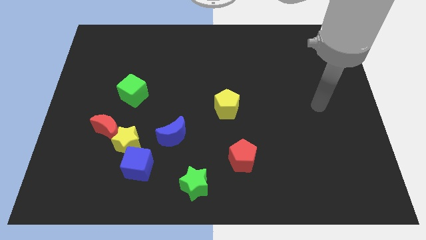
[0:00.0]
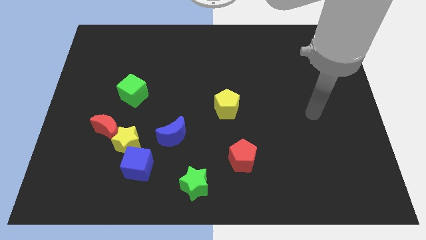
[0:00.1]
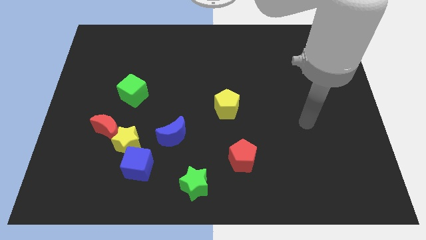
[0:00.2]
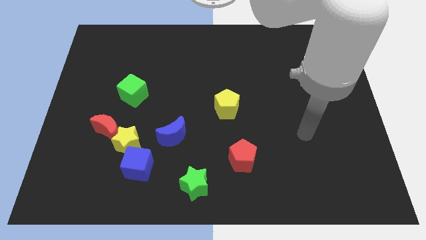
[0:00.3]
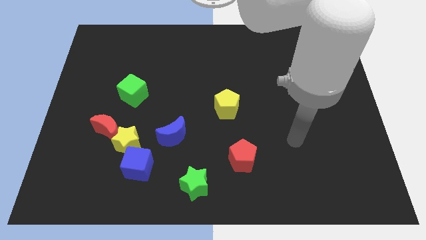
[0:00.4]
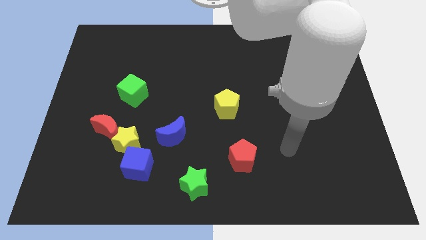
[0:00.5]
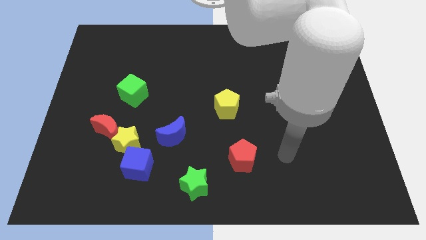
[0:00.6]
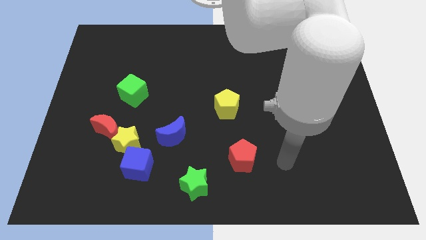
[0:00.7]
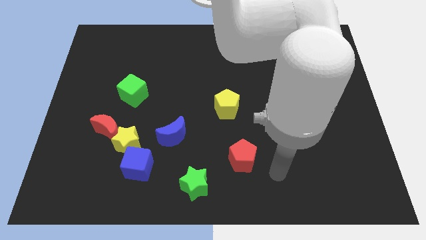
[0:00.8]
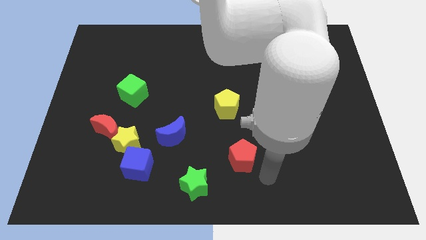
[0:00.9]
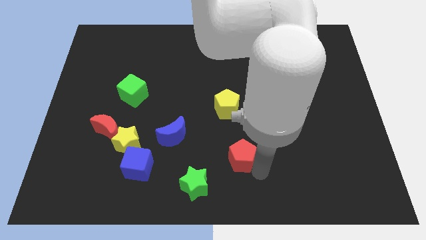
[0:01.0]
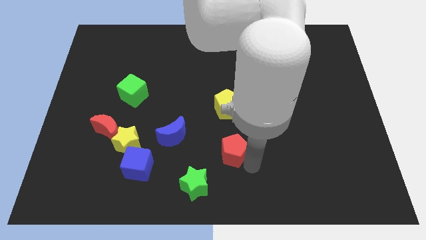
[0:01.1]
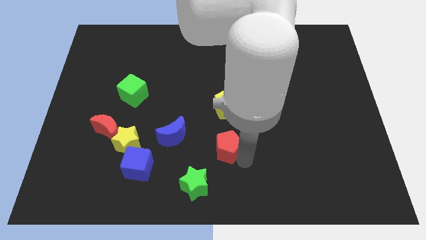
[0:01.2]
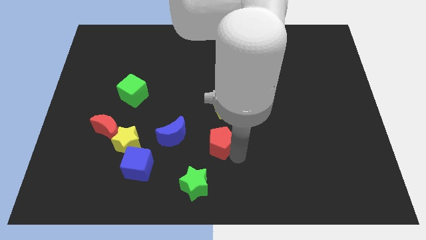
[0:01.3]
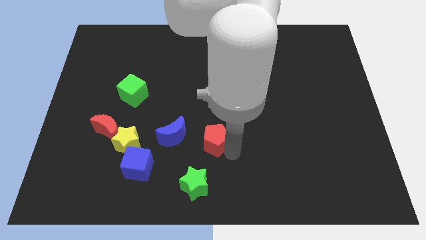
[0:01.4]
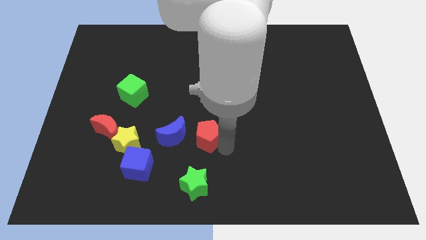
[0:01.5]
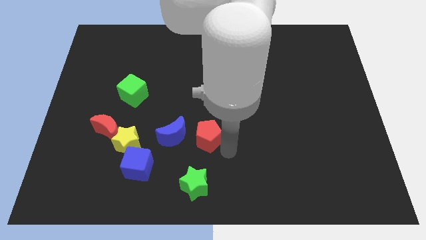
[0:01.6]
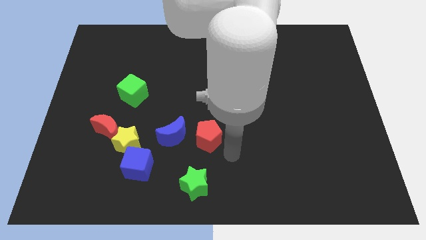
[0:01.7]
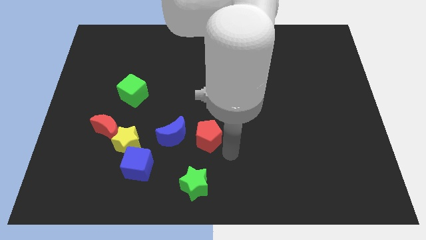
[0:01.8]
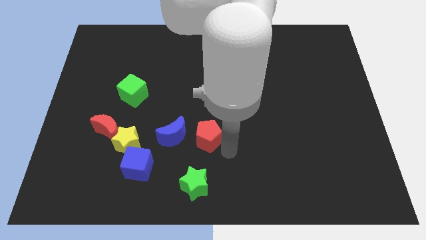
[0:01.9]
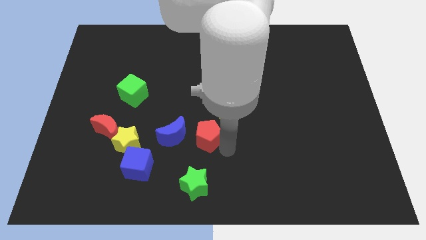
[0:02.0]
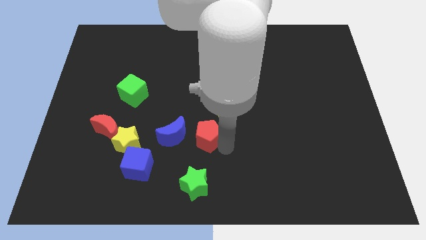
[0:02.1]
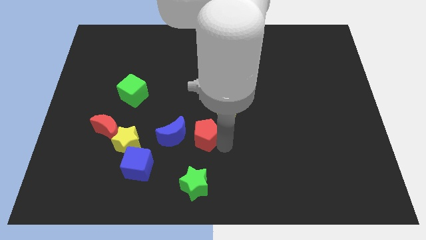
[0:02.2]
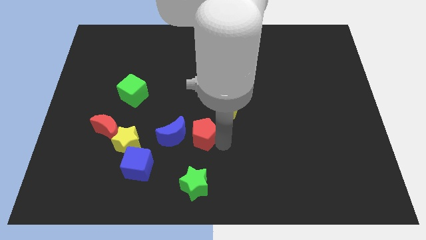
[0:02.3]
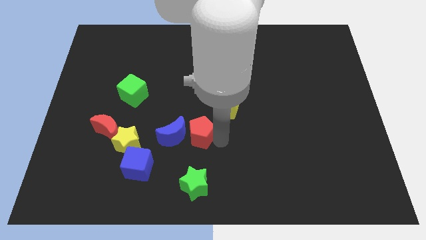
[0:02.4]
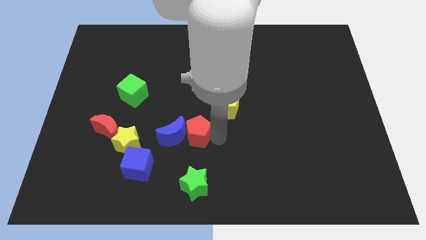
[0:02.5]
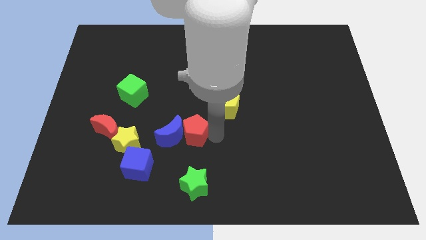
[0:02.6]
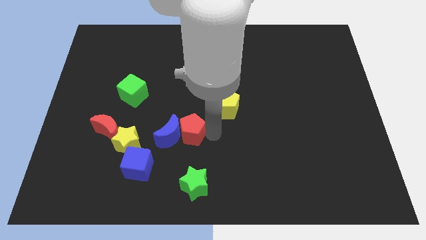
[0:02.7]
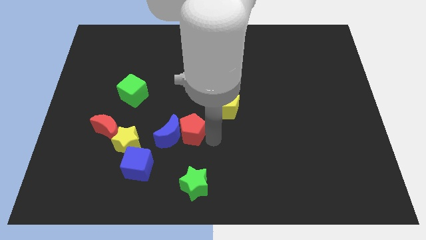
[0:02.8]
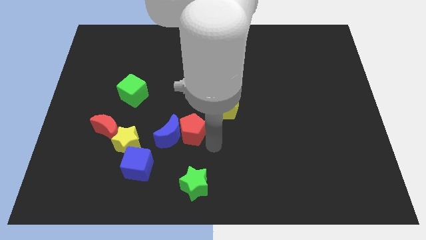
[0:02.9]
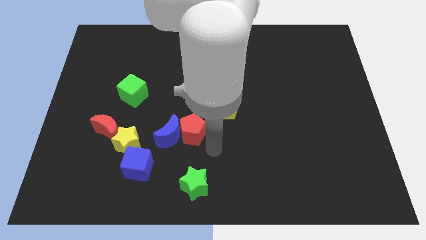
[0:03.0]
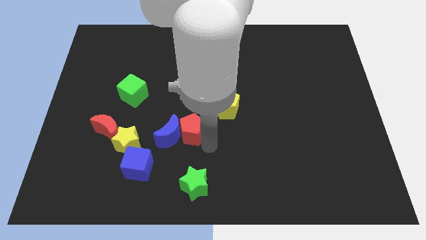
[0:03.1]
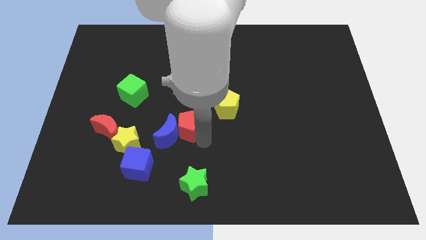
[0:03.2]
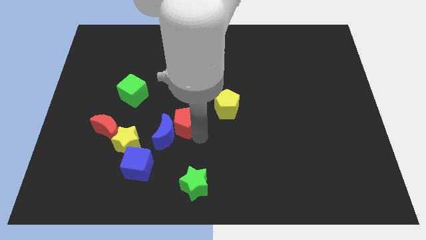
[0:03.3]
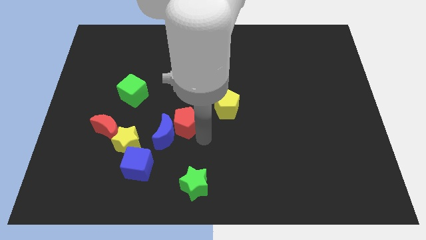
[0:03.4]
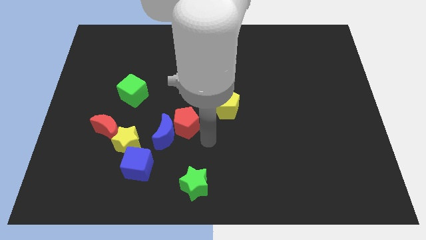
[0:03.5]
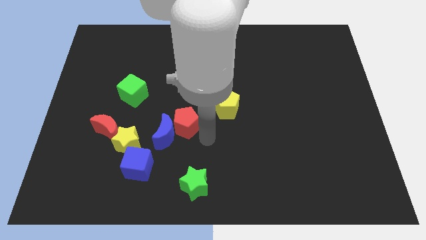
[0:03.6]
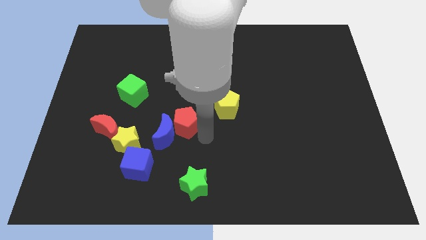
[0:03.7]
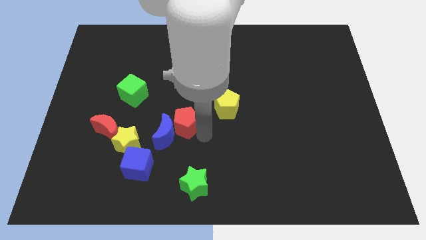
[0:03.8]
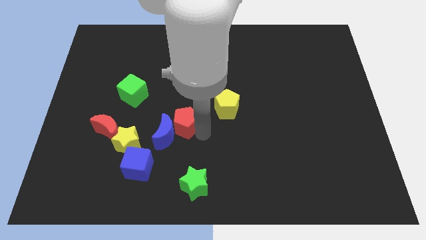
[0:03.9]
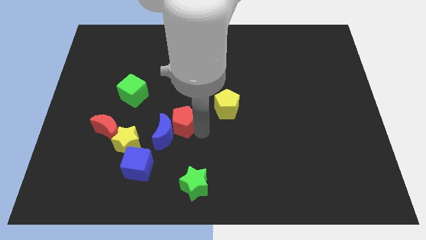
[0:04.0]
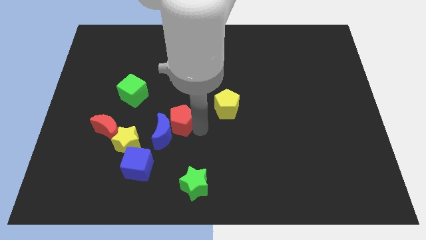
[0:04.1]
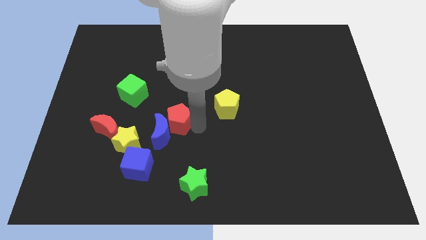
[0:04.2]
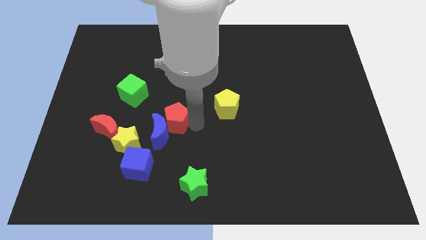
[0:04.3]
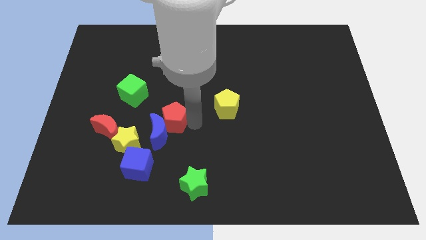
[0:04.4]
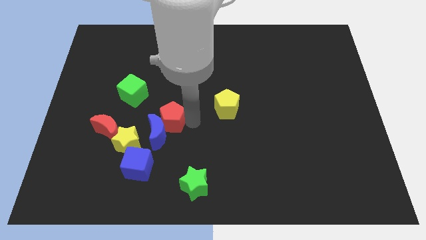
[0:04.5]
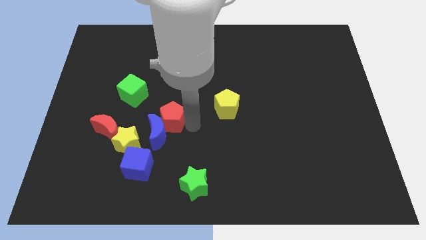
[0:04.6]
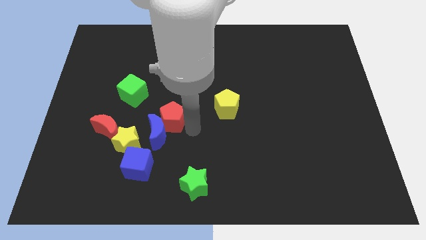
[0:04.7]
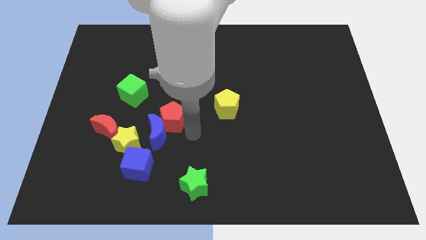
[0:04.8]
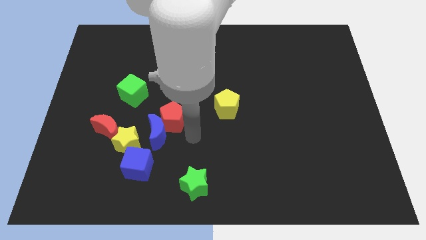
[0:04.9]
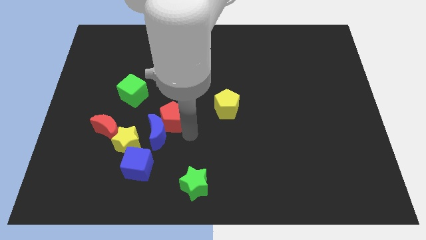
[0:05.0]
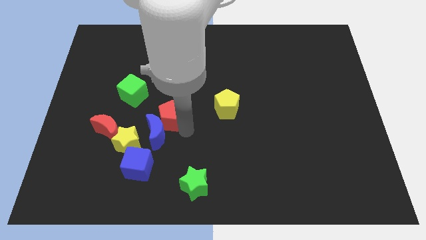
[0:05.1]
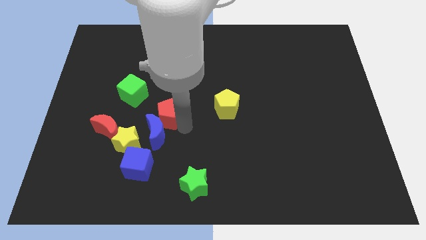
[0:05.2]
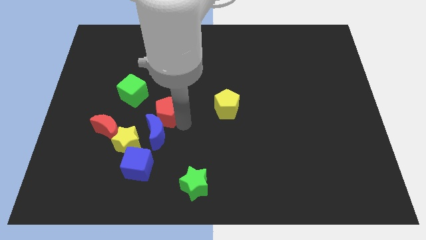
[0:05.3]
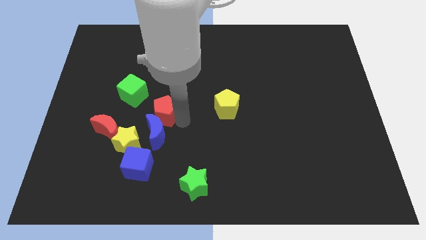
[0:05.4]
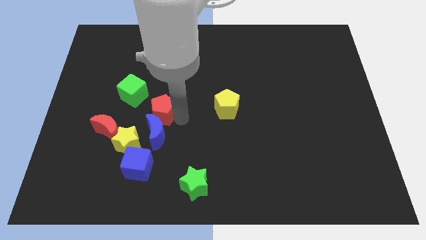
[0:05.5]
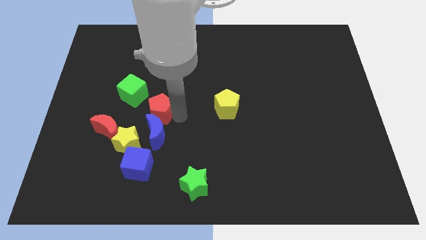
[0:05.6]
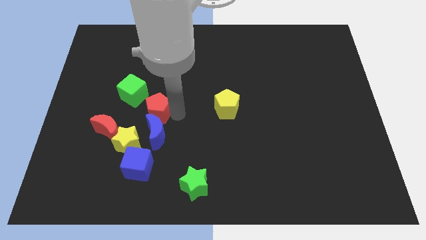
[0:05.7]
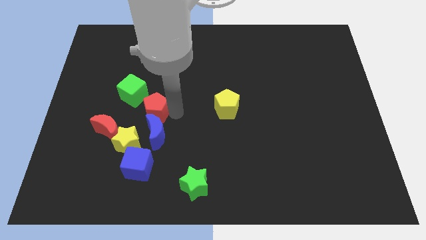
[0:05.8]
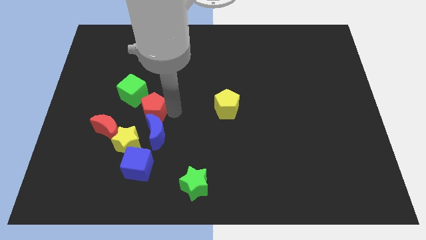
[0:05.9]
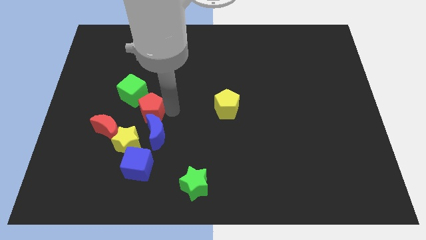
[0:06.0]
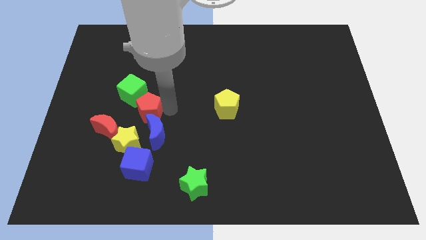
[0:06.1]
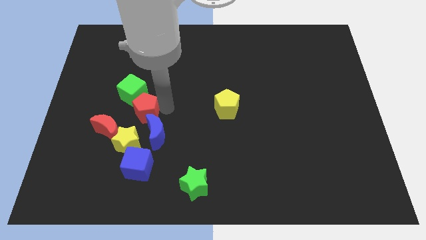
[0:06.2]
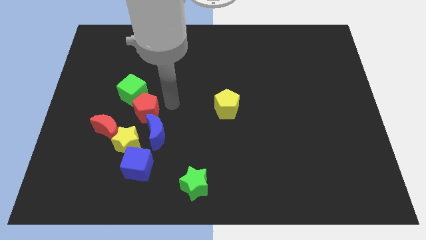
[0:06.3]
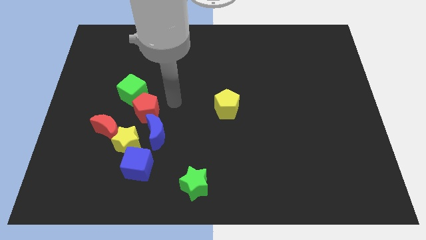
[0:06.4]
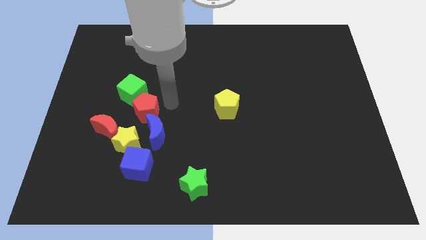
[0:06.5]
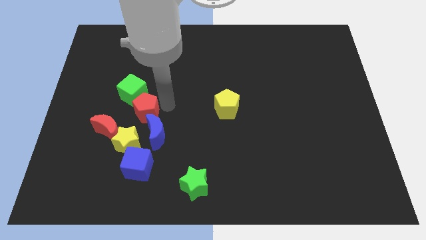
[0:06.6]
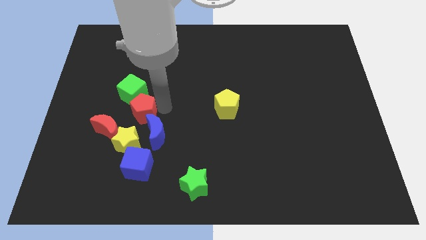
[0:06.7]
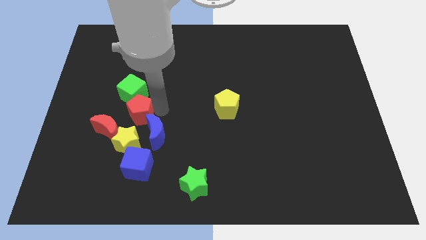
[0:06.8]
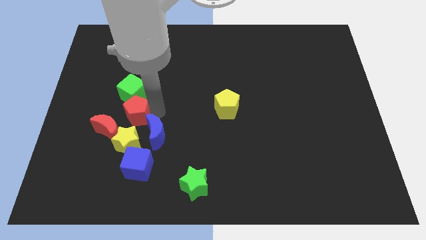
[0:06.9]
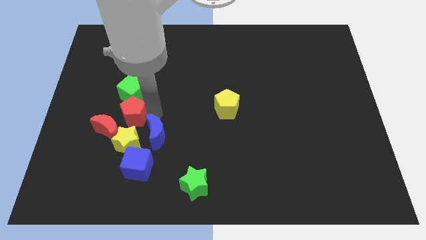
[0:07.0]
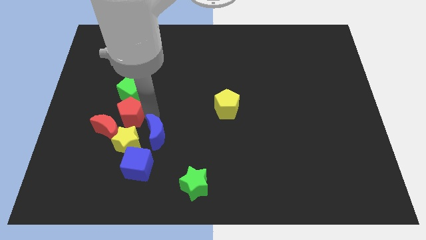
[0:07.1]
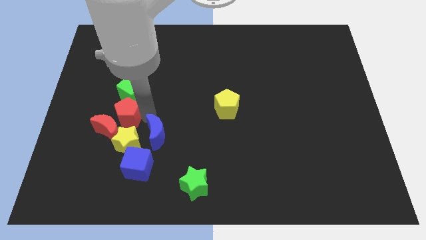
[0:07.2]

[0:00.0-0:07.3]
put the red pentagon to the top left of the yellow star
